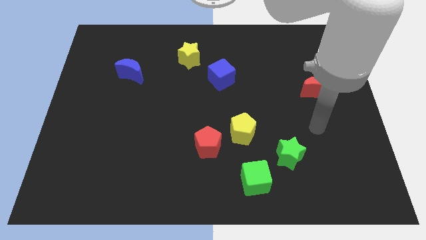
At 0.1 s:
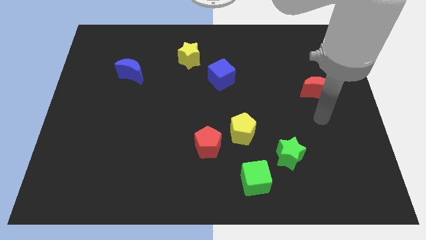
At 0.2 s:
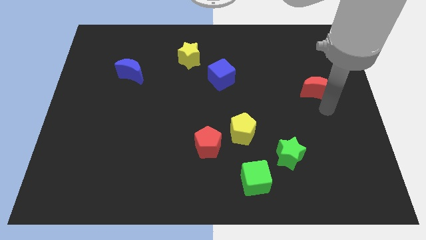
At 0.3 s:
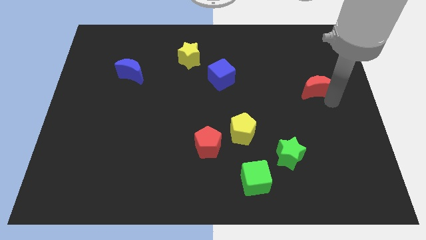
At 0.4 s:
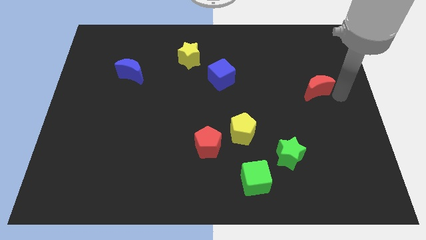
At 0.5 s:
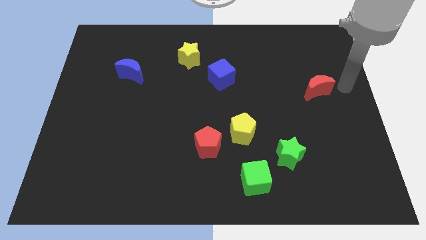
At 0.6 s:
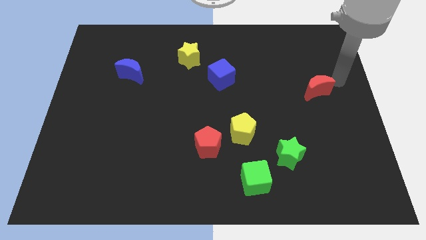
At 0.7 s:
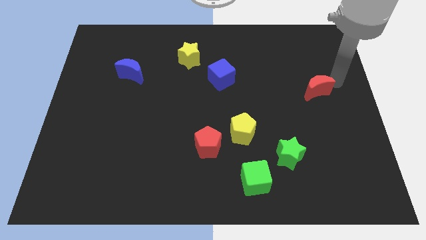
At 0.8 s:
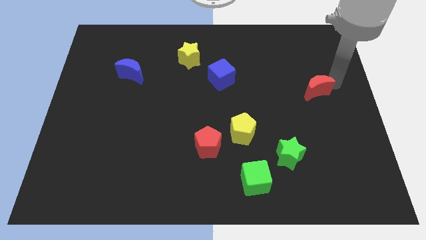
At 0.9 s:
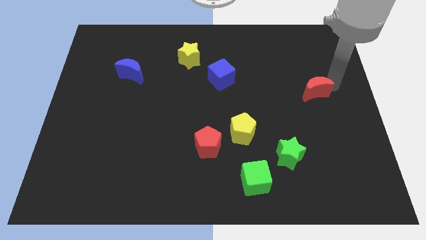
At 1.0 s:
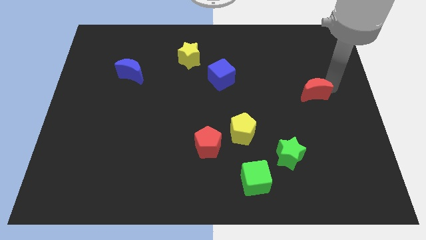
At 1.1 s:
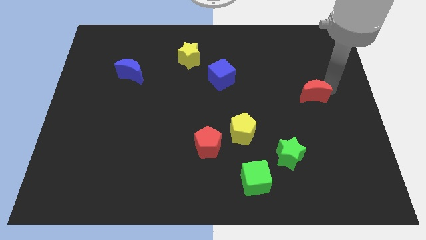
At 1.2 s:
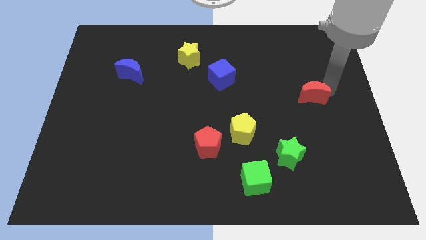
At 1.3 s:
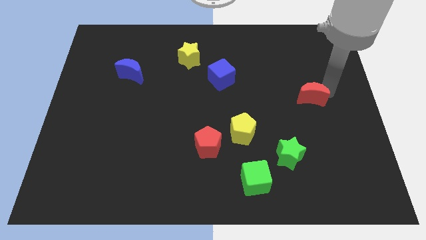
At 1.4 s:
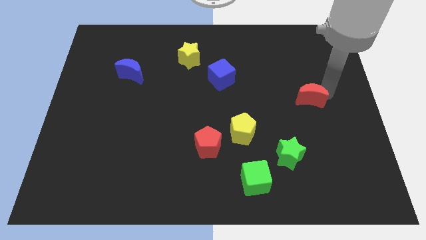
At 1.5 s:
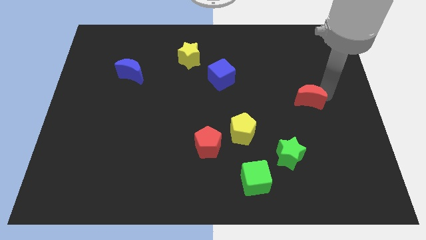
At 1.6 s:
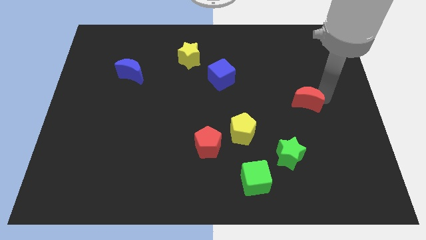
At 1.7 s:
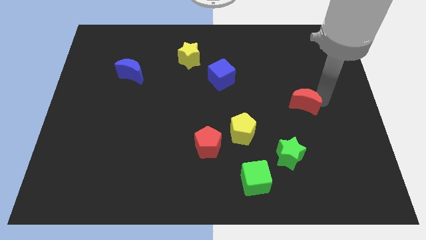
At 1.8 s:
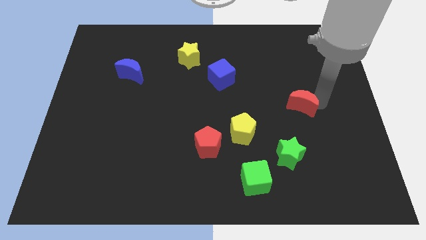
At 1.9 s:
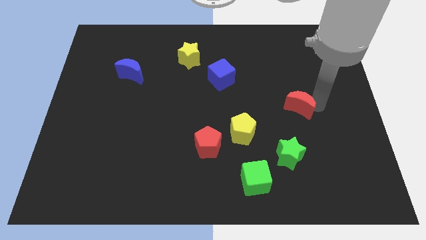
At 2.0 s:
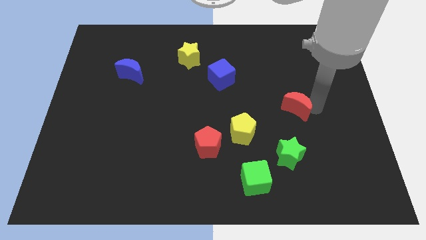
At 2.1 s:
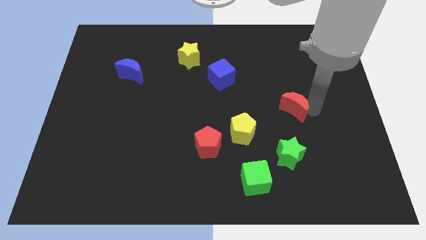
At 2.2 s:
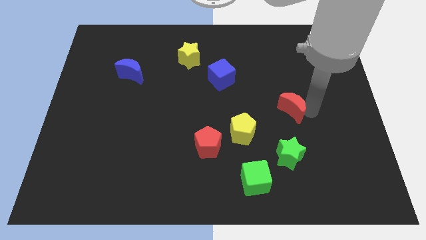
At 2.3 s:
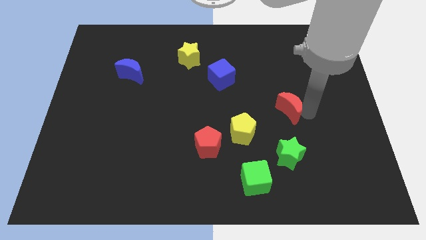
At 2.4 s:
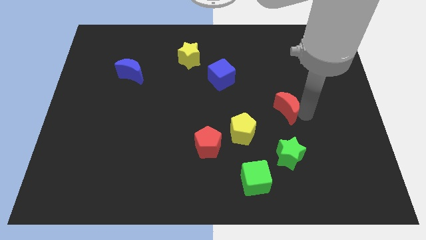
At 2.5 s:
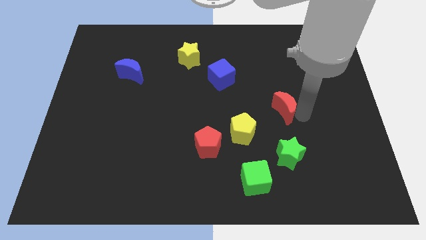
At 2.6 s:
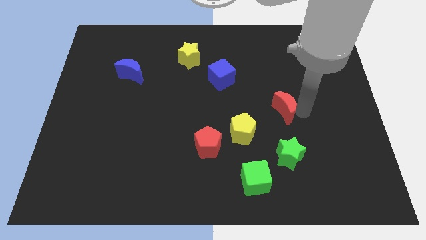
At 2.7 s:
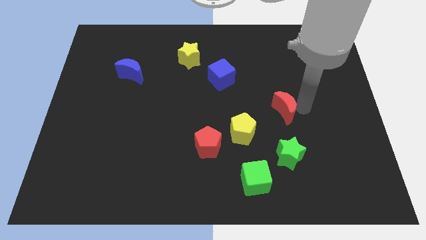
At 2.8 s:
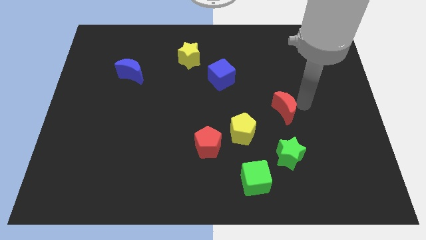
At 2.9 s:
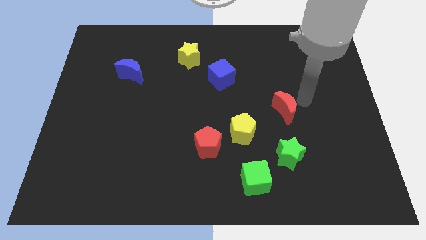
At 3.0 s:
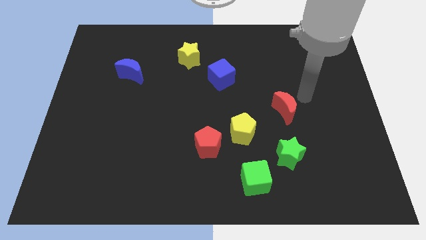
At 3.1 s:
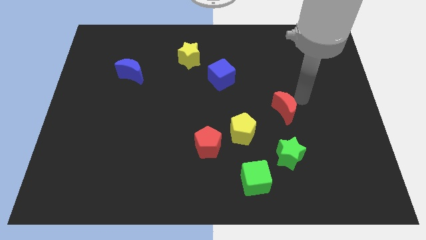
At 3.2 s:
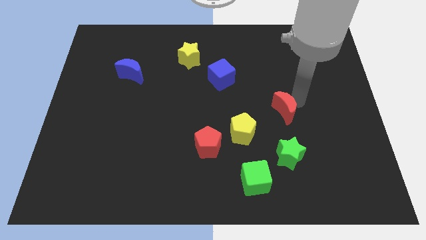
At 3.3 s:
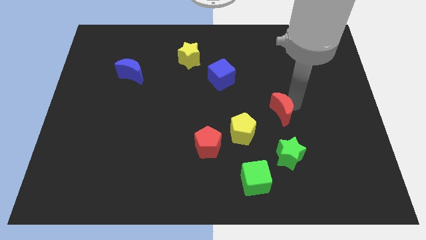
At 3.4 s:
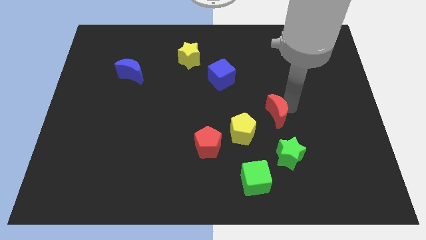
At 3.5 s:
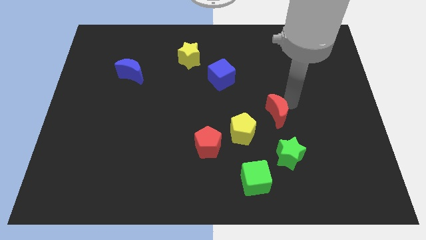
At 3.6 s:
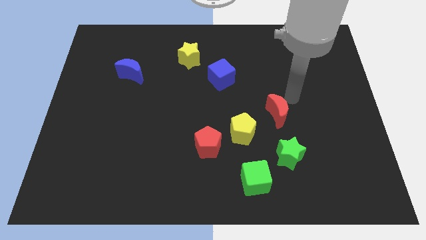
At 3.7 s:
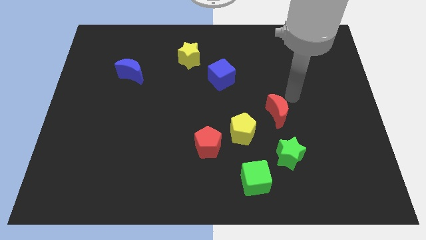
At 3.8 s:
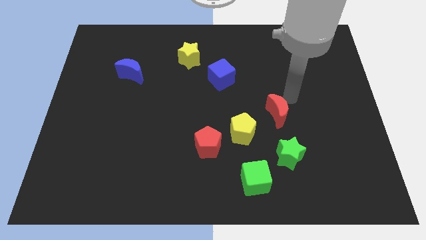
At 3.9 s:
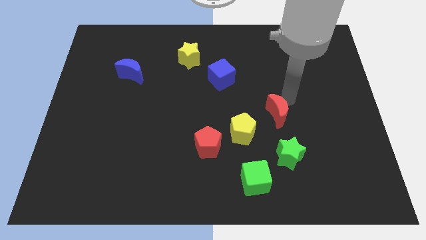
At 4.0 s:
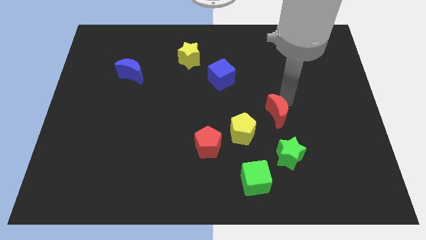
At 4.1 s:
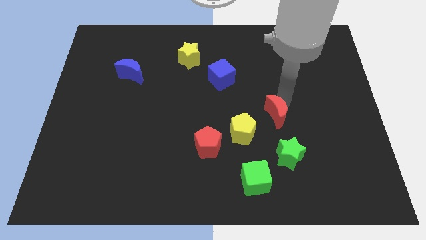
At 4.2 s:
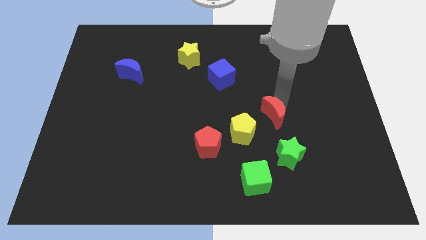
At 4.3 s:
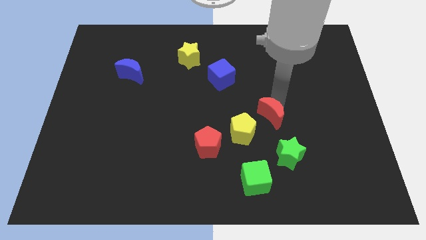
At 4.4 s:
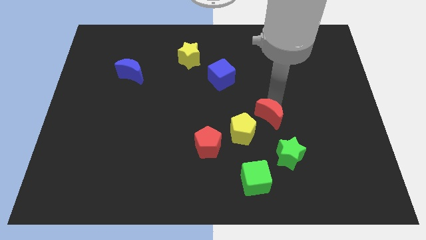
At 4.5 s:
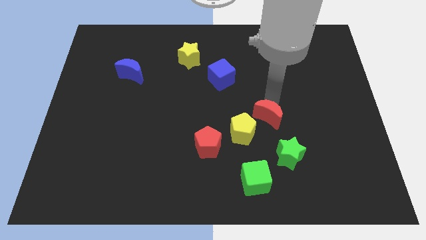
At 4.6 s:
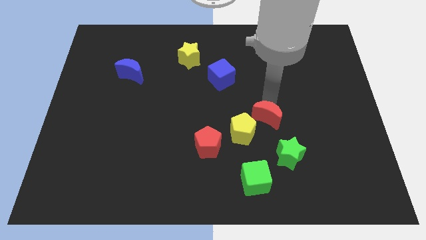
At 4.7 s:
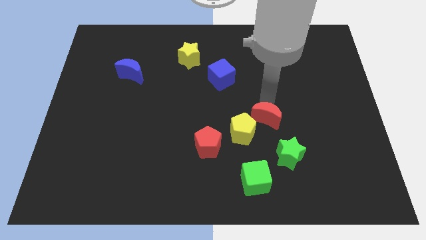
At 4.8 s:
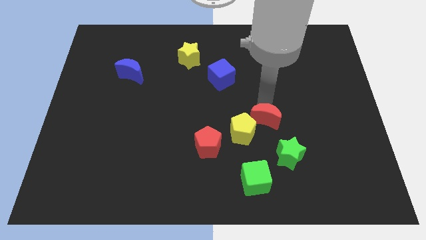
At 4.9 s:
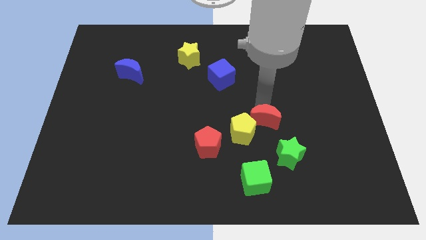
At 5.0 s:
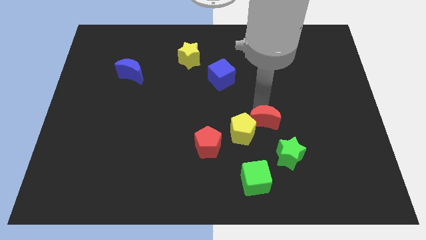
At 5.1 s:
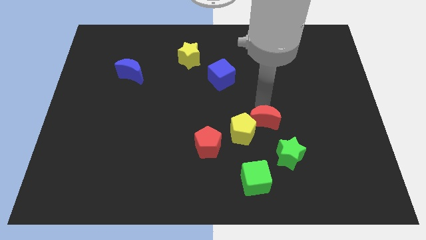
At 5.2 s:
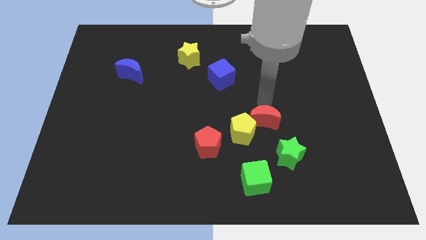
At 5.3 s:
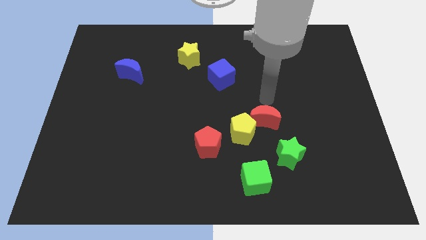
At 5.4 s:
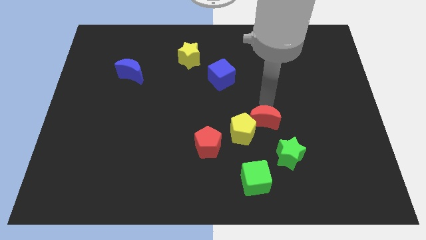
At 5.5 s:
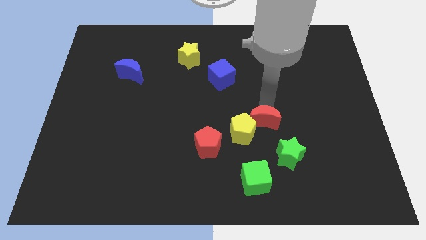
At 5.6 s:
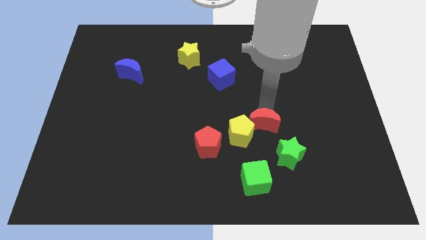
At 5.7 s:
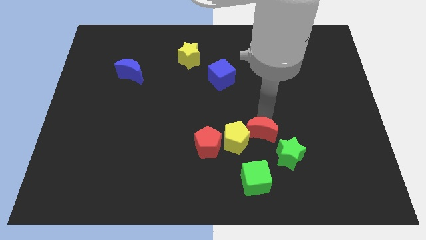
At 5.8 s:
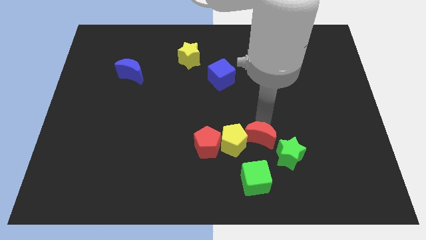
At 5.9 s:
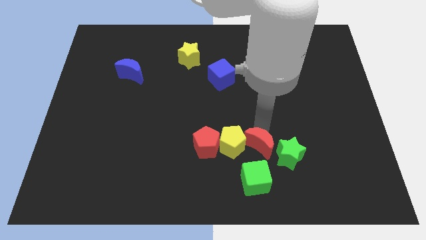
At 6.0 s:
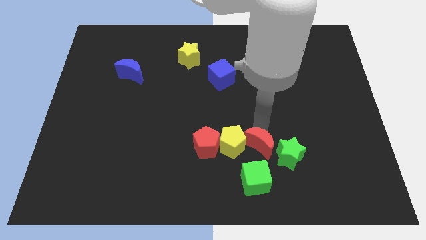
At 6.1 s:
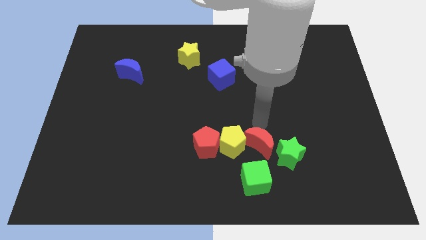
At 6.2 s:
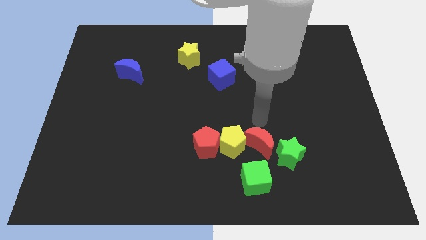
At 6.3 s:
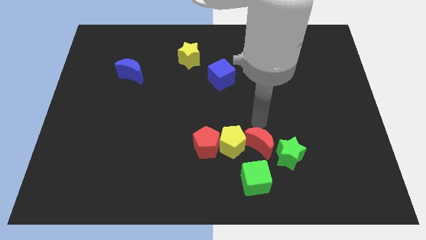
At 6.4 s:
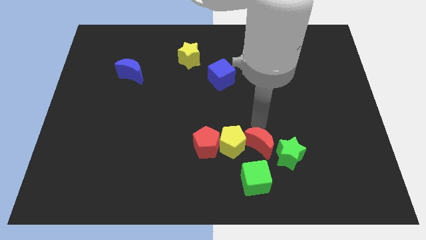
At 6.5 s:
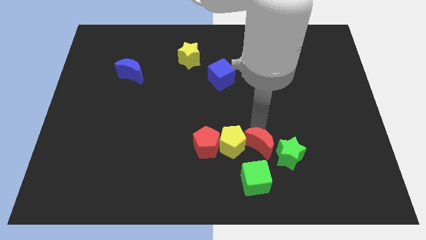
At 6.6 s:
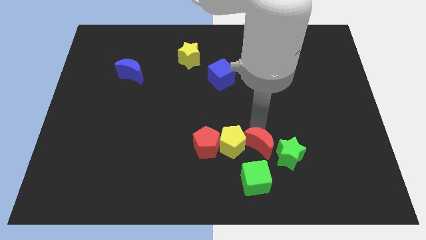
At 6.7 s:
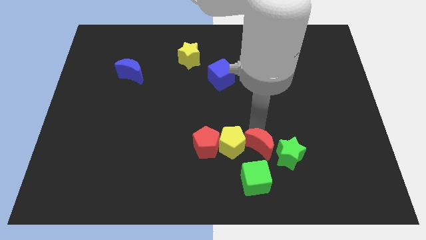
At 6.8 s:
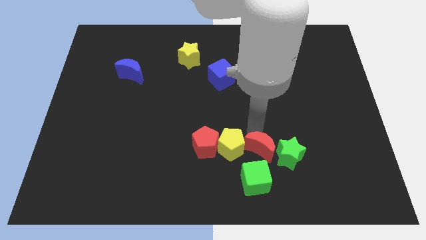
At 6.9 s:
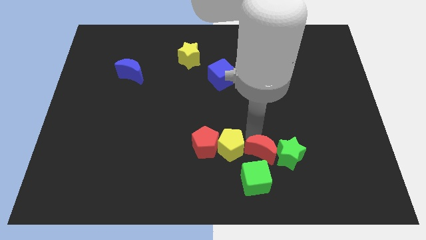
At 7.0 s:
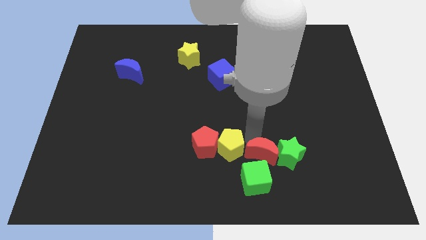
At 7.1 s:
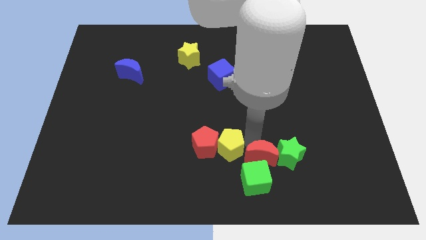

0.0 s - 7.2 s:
move the red moon towards the green cube
